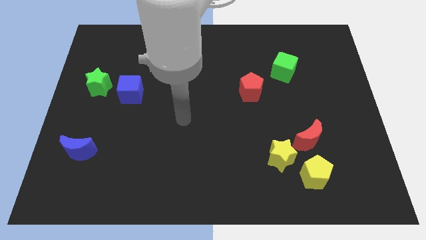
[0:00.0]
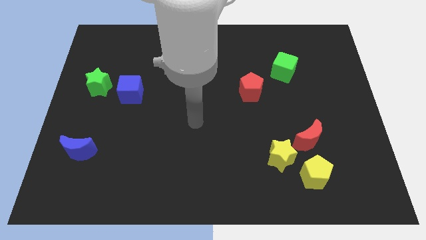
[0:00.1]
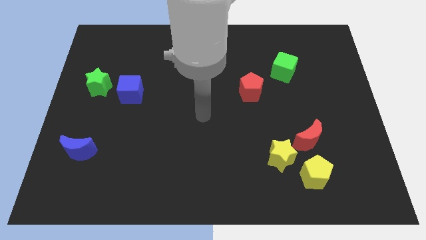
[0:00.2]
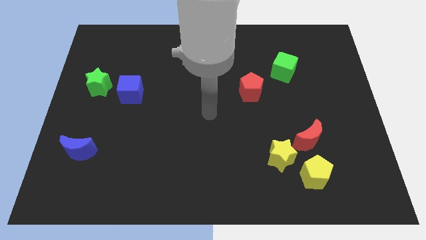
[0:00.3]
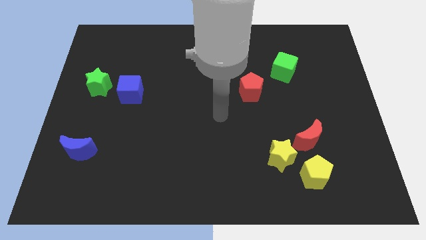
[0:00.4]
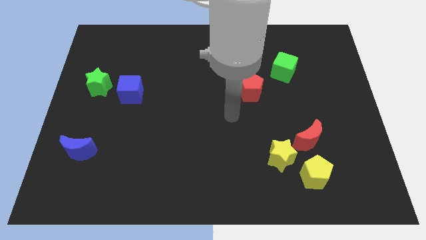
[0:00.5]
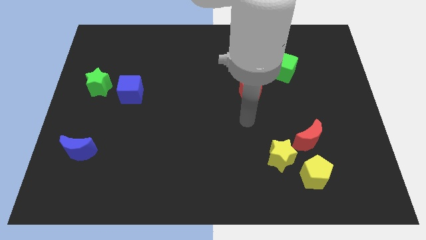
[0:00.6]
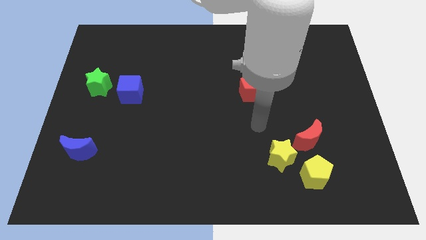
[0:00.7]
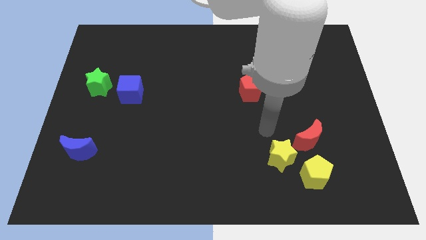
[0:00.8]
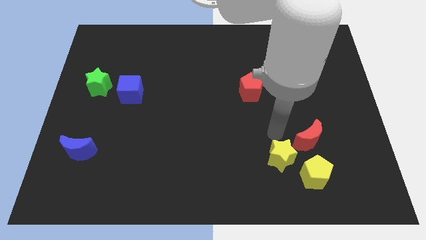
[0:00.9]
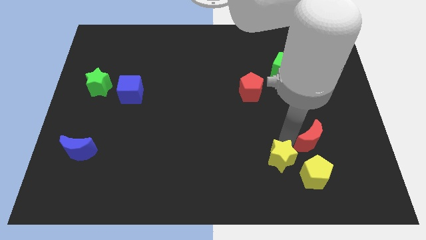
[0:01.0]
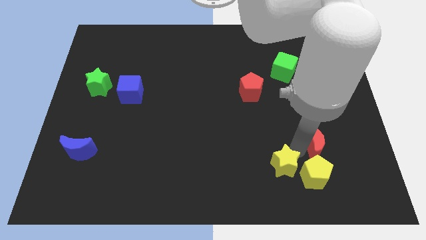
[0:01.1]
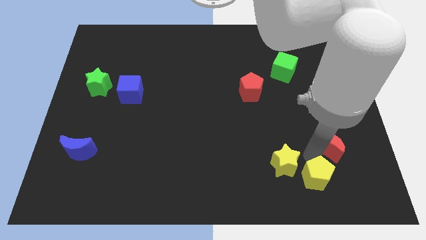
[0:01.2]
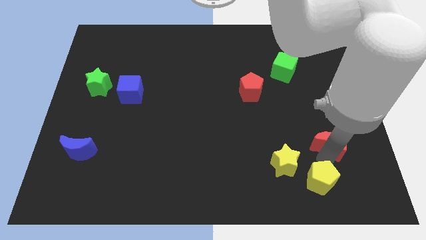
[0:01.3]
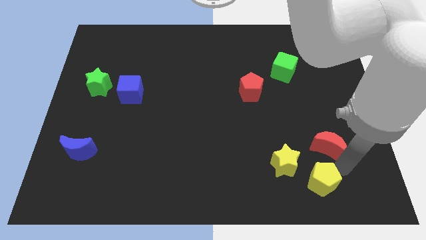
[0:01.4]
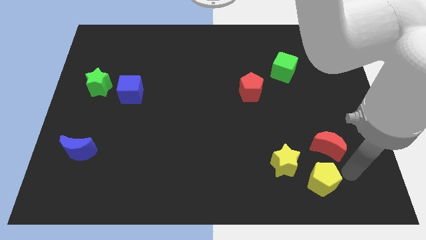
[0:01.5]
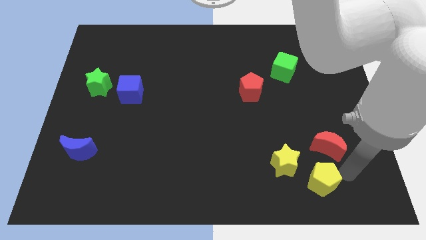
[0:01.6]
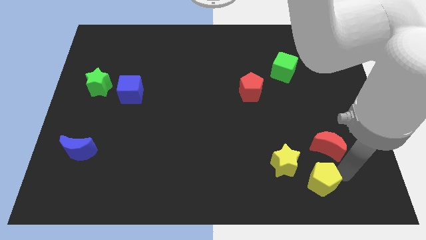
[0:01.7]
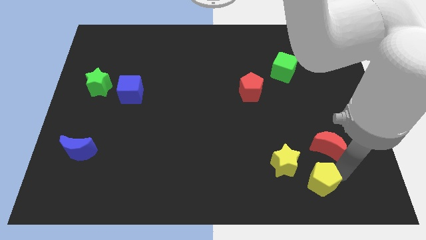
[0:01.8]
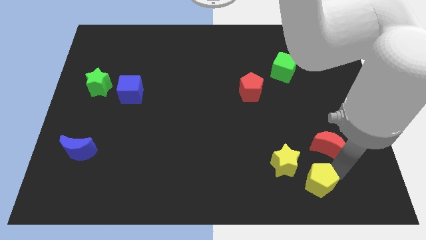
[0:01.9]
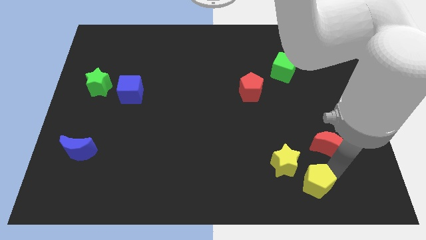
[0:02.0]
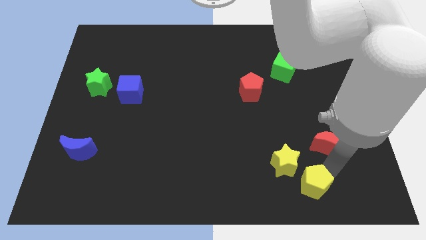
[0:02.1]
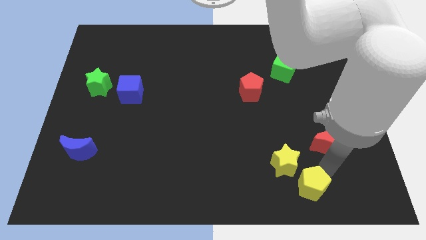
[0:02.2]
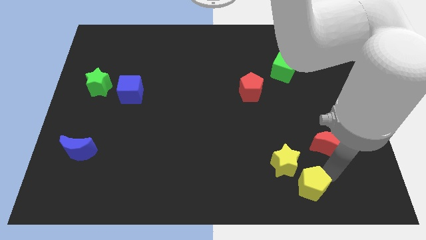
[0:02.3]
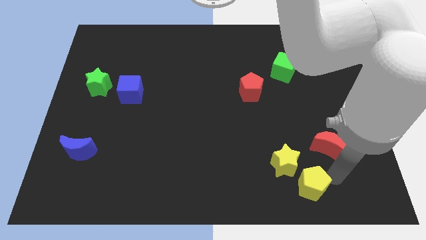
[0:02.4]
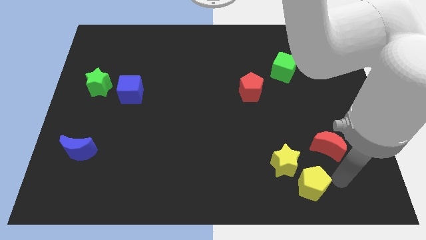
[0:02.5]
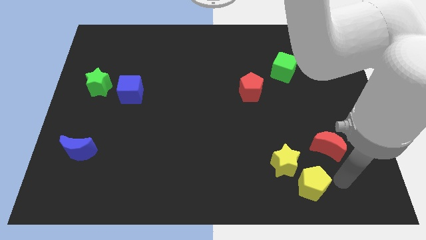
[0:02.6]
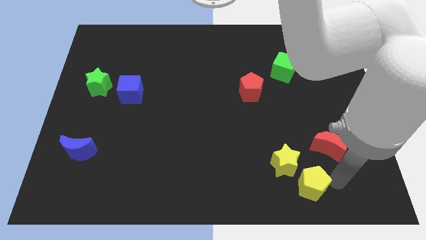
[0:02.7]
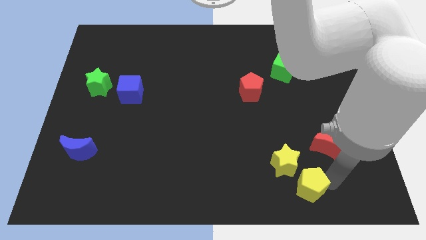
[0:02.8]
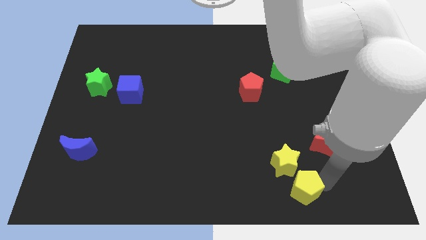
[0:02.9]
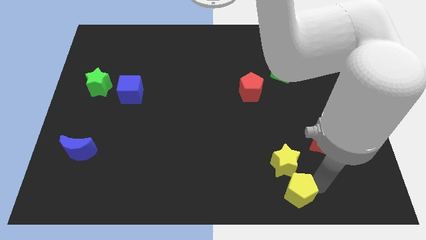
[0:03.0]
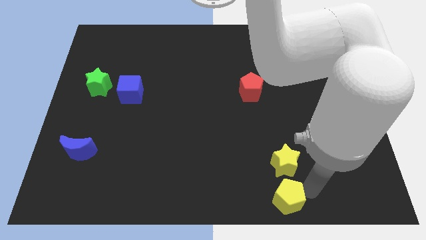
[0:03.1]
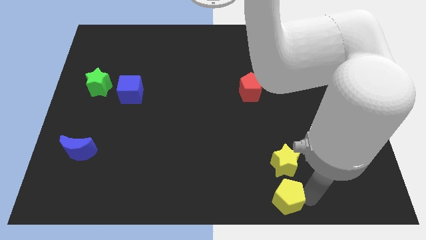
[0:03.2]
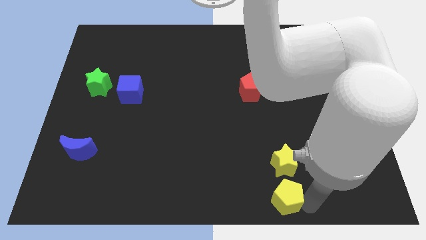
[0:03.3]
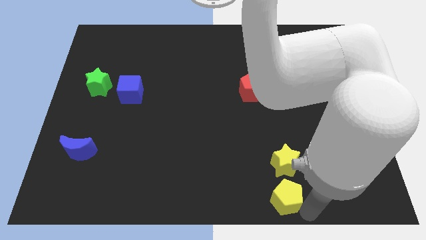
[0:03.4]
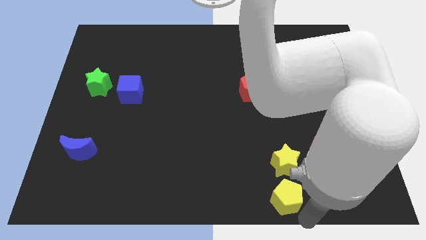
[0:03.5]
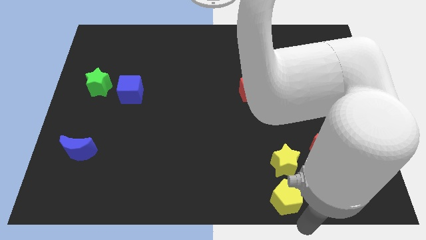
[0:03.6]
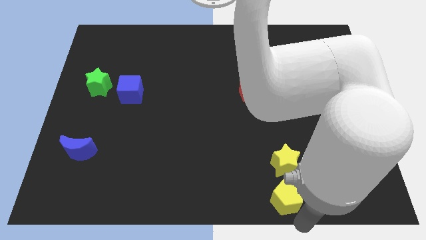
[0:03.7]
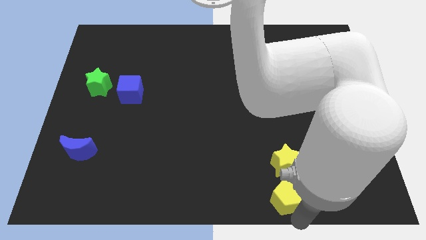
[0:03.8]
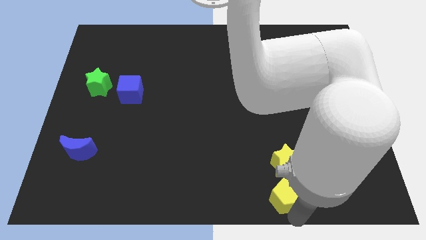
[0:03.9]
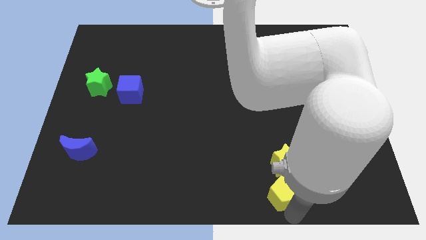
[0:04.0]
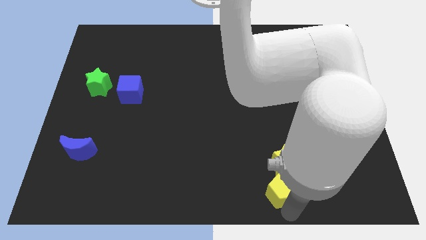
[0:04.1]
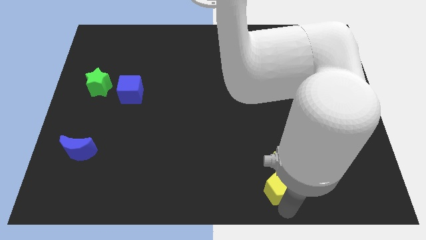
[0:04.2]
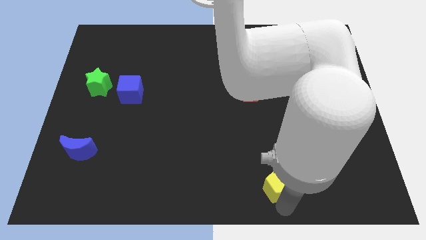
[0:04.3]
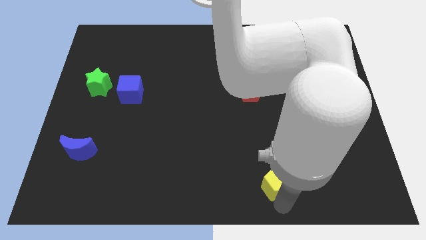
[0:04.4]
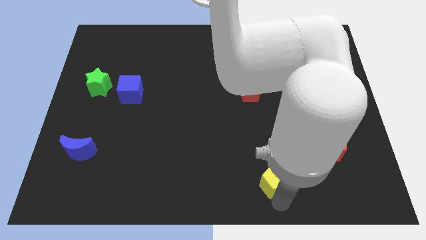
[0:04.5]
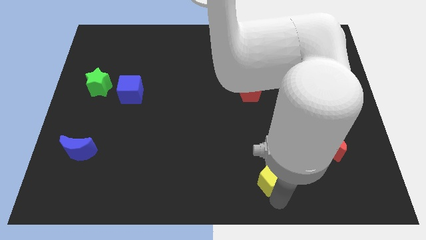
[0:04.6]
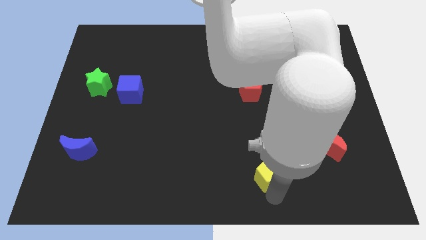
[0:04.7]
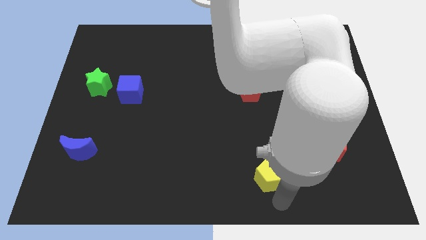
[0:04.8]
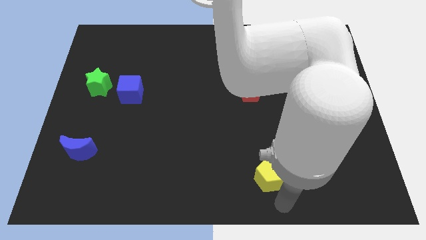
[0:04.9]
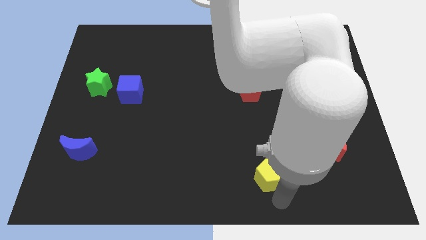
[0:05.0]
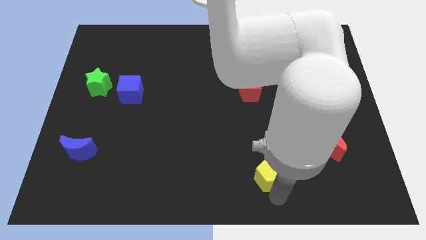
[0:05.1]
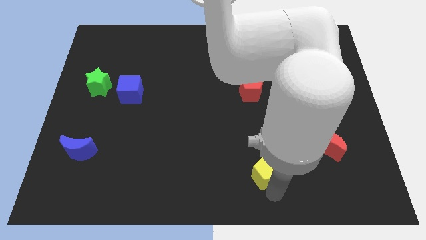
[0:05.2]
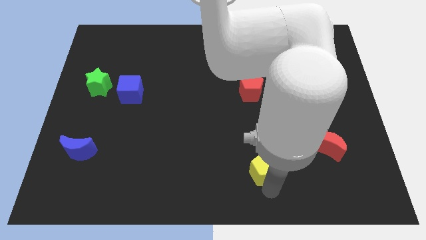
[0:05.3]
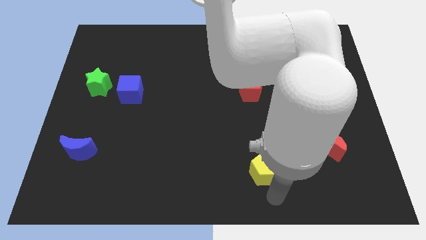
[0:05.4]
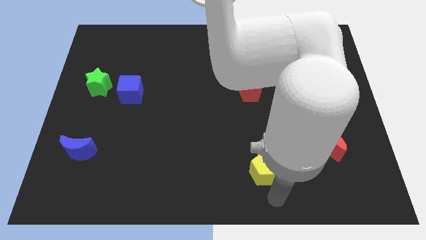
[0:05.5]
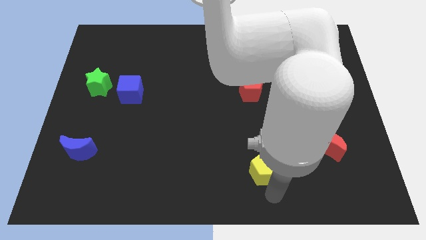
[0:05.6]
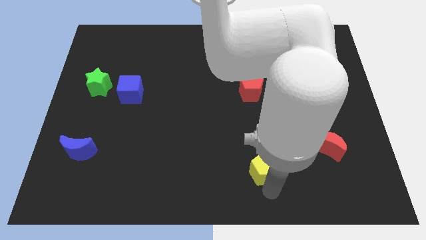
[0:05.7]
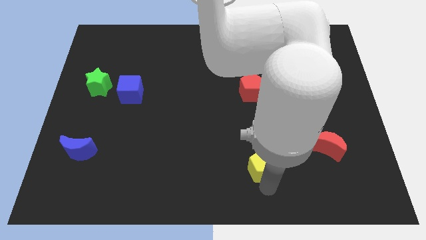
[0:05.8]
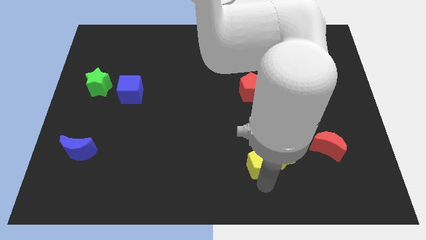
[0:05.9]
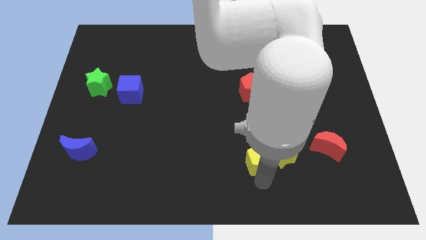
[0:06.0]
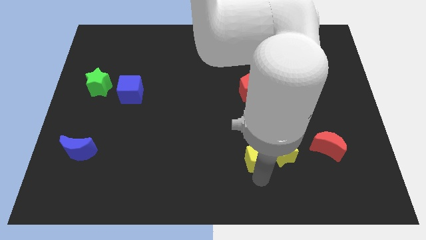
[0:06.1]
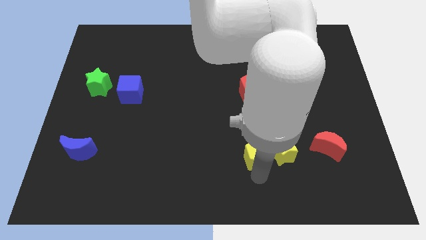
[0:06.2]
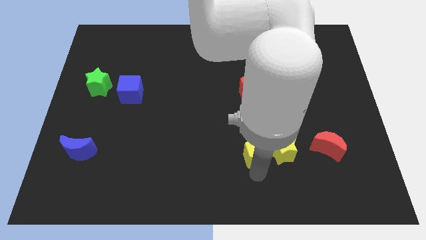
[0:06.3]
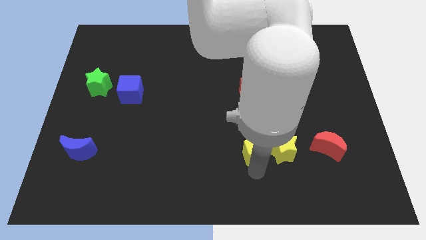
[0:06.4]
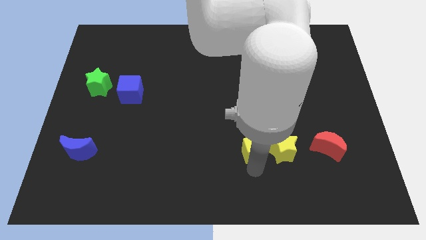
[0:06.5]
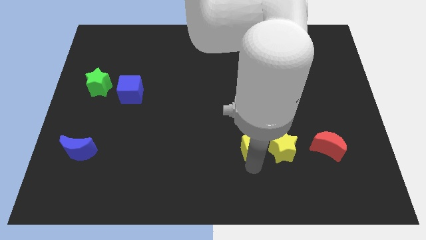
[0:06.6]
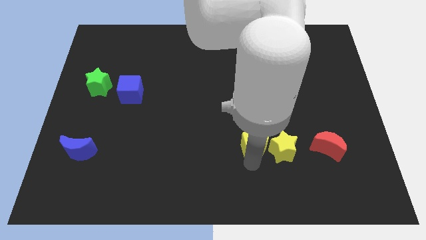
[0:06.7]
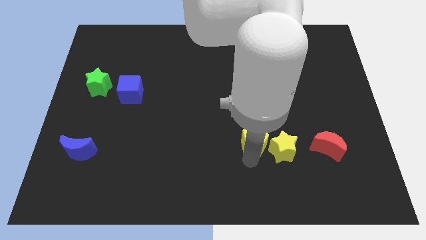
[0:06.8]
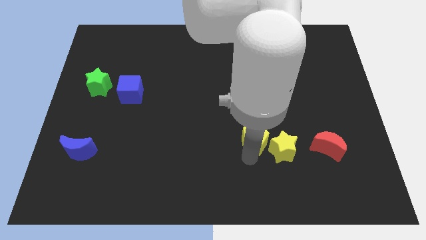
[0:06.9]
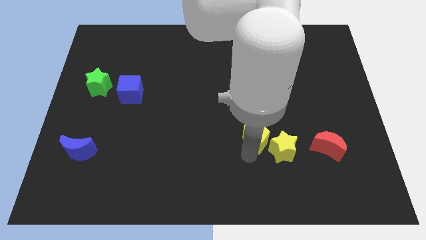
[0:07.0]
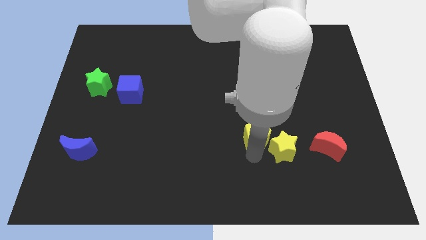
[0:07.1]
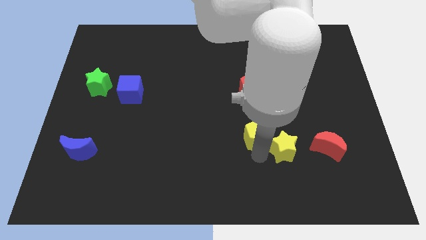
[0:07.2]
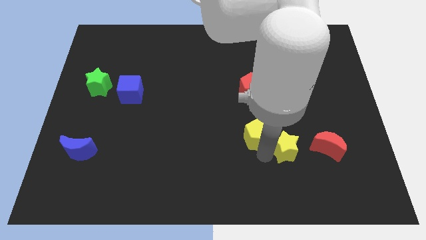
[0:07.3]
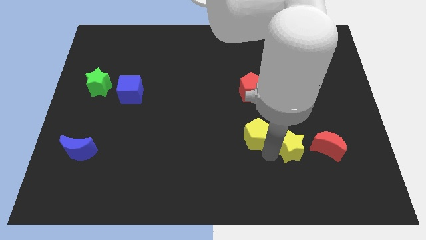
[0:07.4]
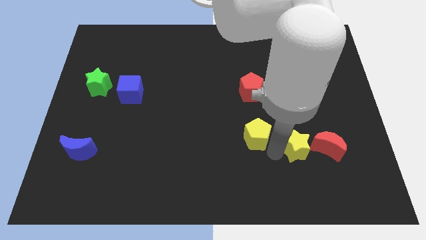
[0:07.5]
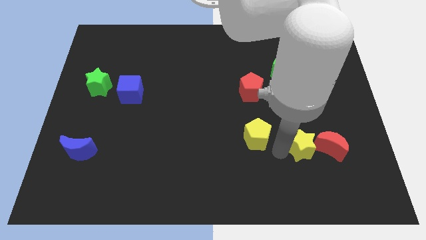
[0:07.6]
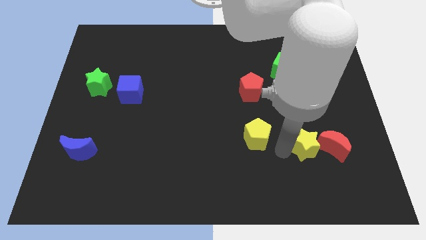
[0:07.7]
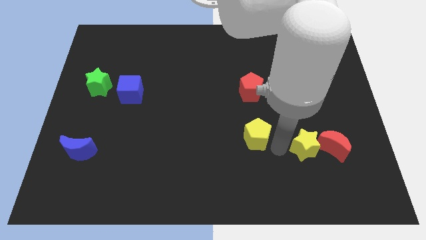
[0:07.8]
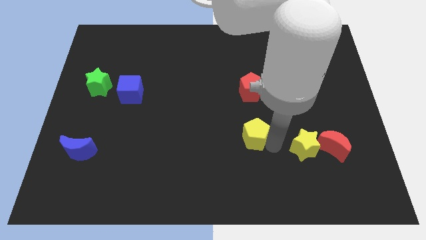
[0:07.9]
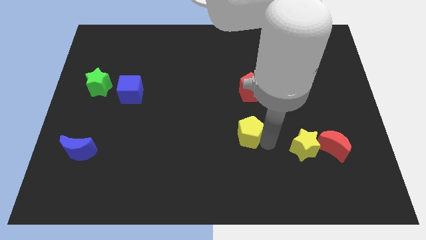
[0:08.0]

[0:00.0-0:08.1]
slide the yellow pentagon to the middle of the board
